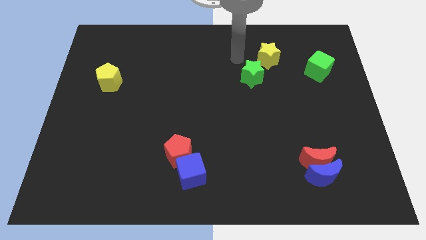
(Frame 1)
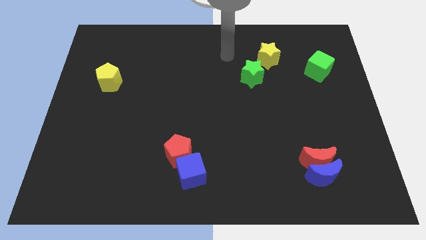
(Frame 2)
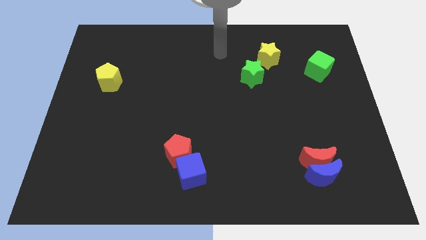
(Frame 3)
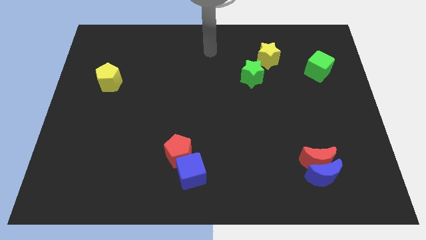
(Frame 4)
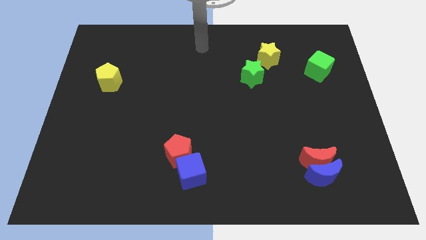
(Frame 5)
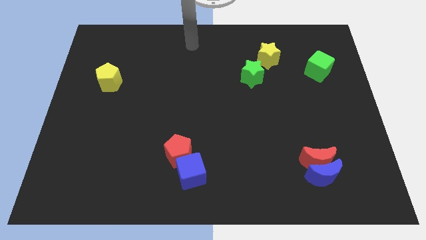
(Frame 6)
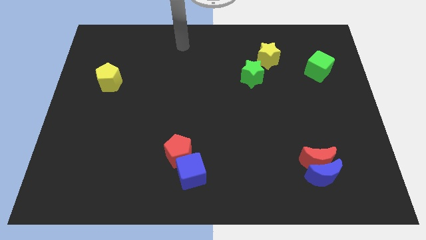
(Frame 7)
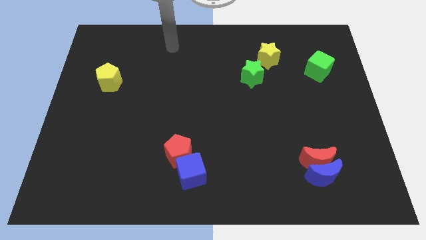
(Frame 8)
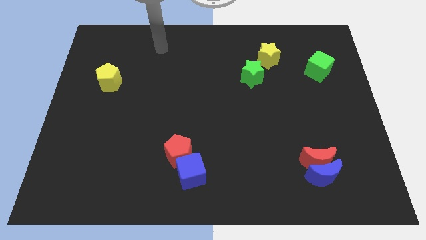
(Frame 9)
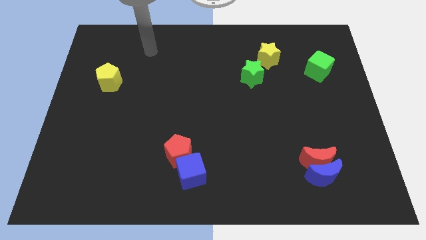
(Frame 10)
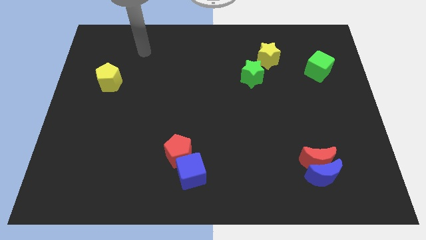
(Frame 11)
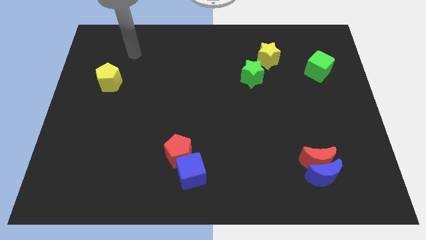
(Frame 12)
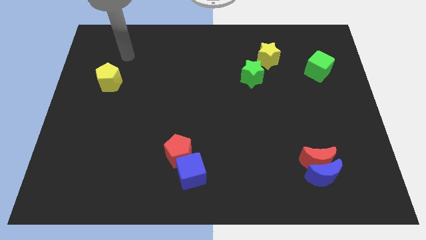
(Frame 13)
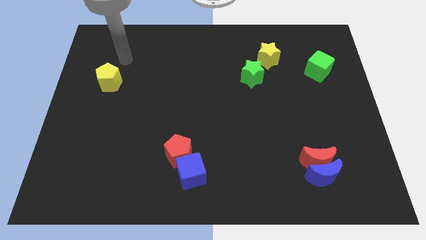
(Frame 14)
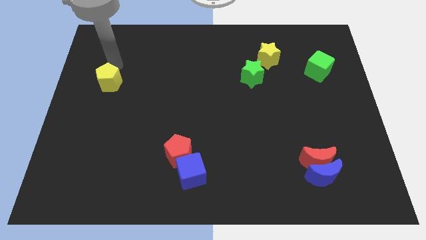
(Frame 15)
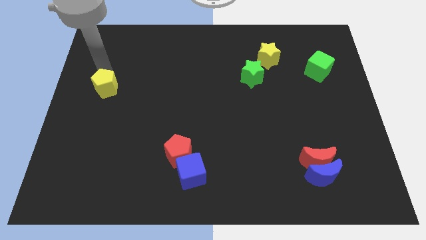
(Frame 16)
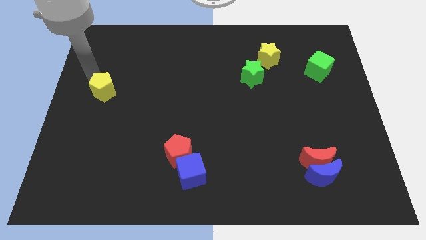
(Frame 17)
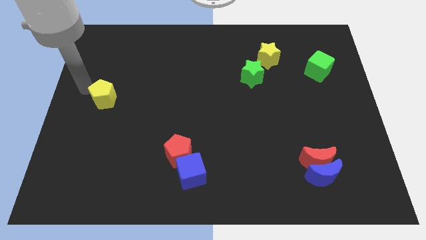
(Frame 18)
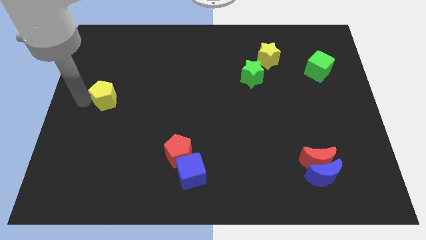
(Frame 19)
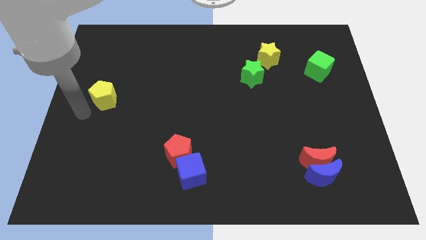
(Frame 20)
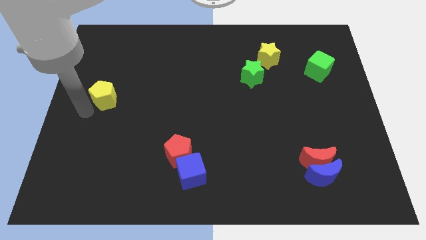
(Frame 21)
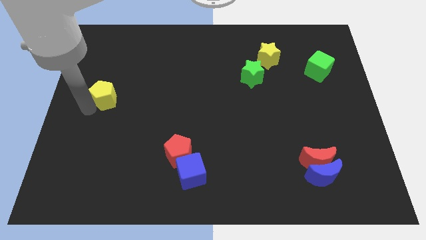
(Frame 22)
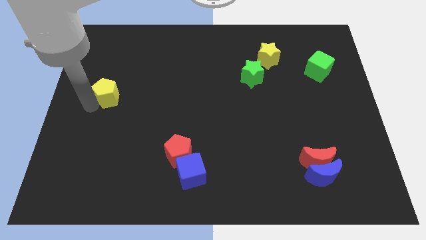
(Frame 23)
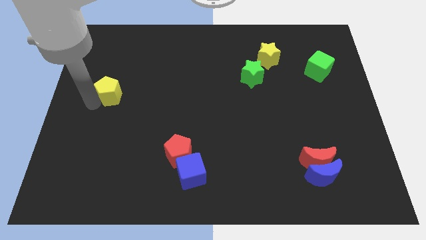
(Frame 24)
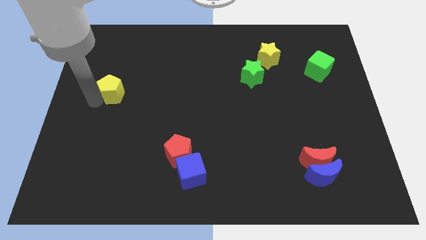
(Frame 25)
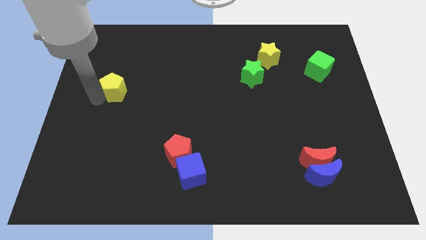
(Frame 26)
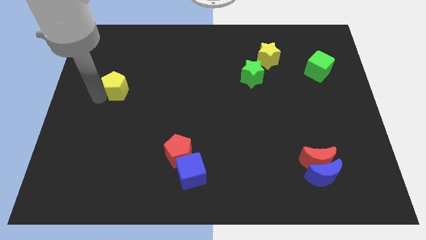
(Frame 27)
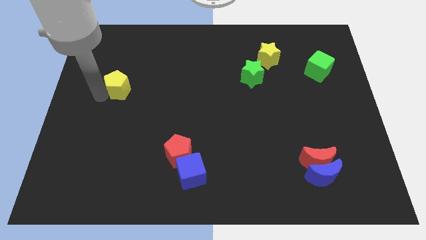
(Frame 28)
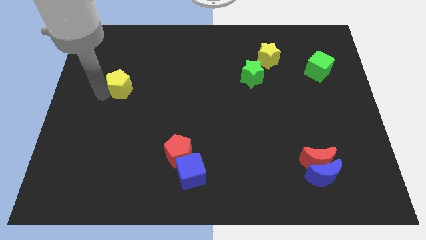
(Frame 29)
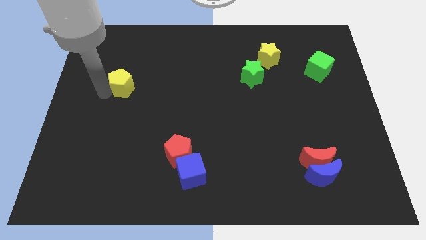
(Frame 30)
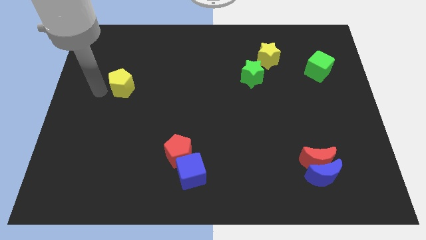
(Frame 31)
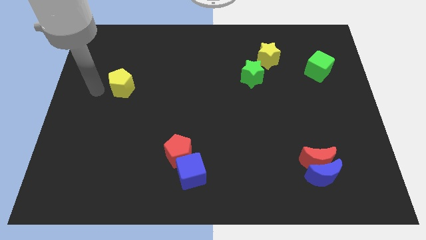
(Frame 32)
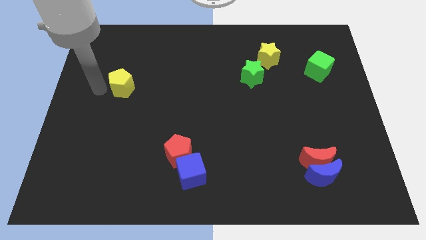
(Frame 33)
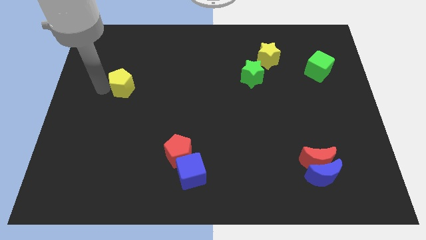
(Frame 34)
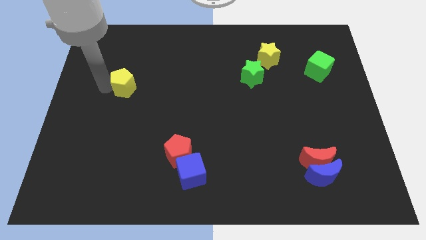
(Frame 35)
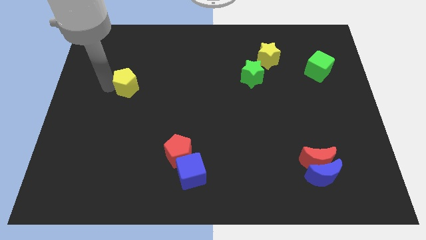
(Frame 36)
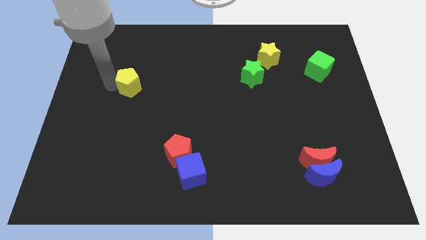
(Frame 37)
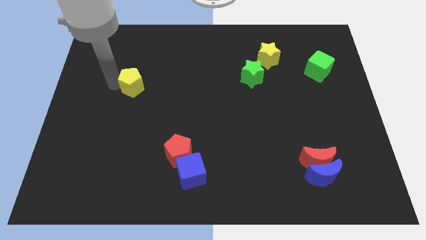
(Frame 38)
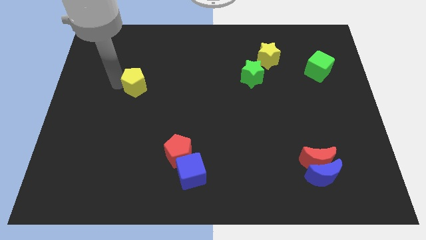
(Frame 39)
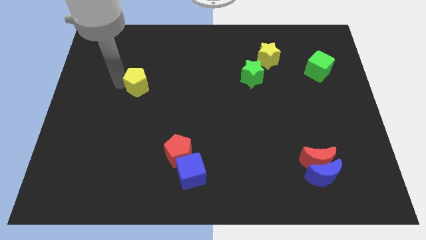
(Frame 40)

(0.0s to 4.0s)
slightly push the yellow pentagon right

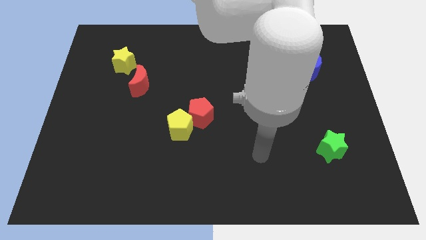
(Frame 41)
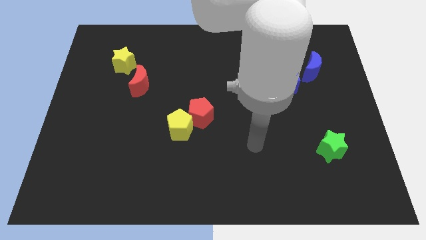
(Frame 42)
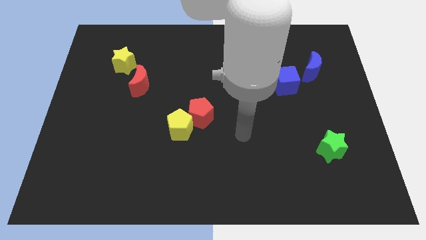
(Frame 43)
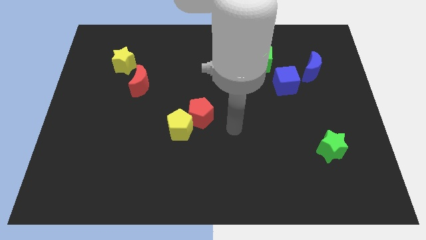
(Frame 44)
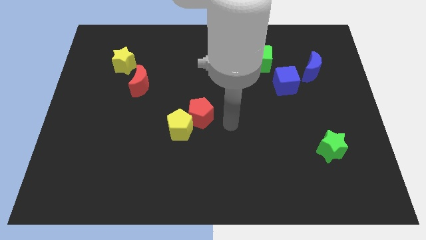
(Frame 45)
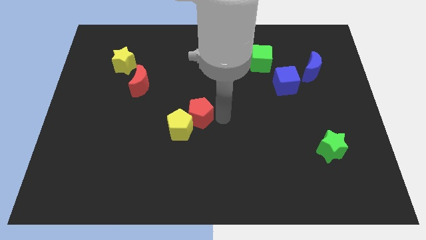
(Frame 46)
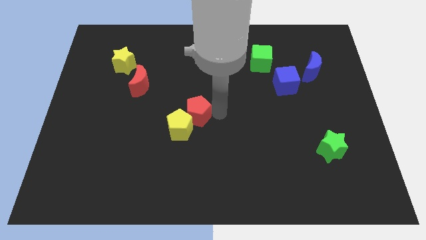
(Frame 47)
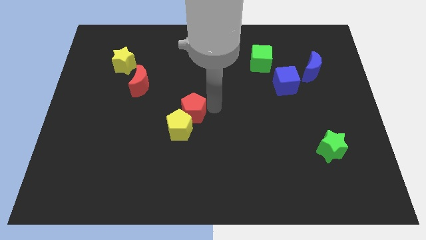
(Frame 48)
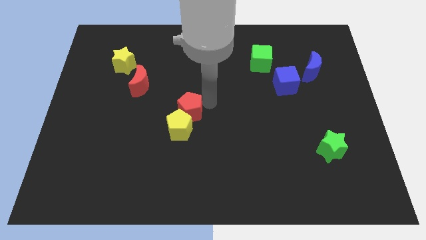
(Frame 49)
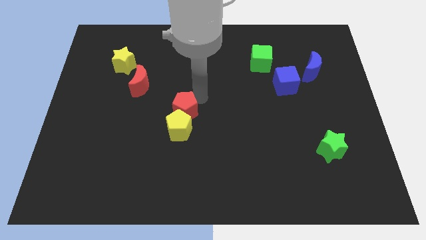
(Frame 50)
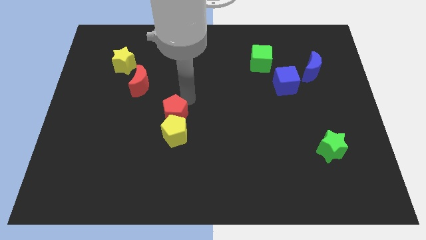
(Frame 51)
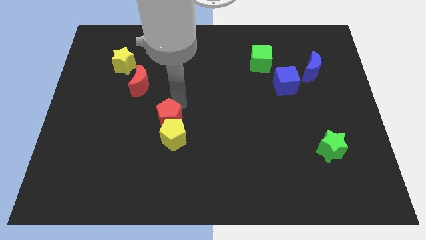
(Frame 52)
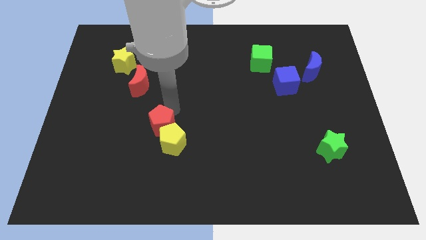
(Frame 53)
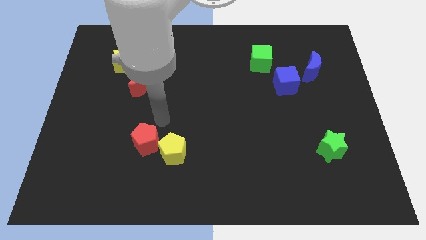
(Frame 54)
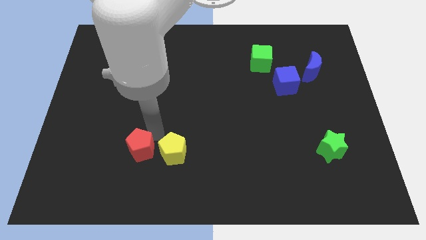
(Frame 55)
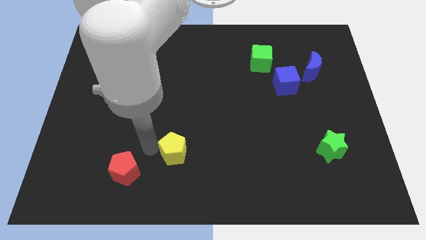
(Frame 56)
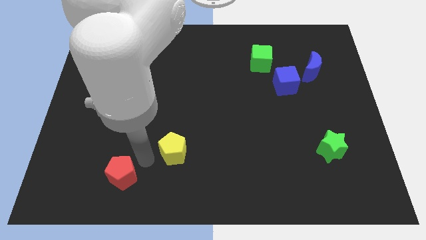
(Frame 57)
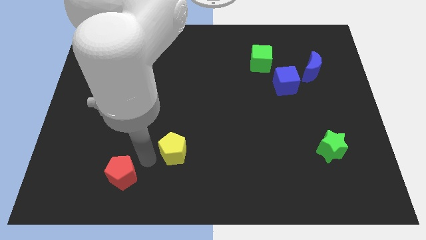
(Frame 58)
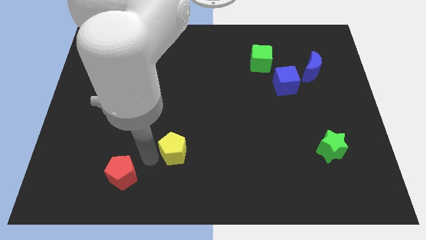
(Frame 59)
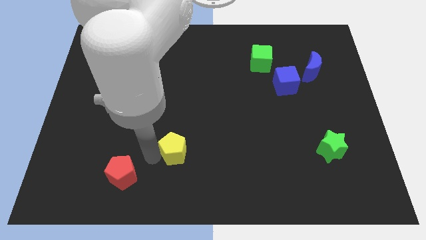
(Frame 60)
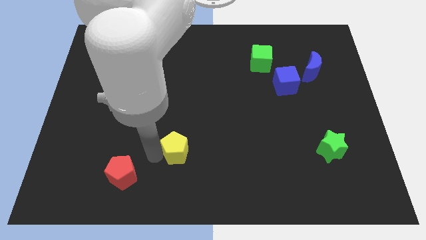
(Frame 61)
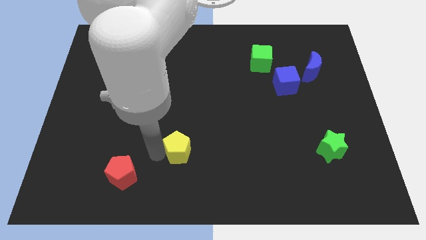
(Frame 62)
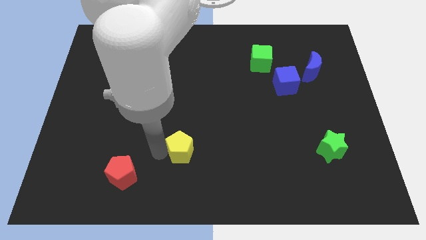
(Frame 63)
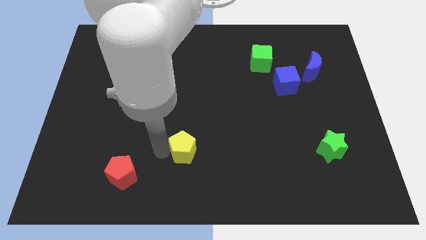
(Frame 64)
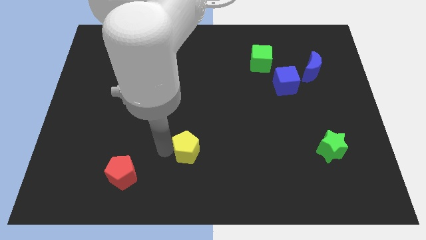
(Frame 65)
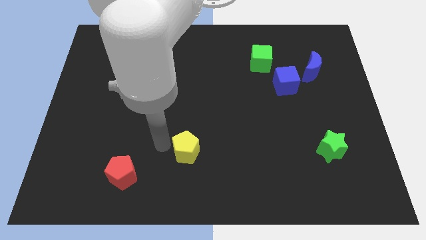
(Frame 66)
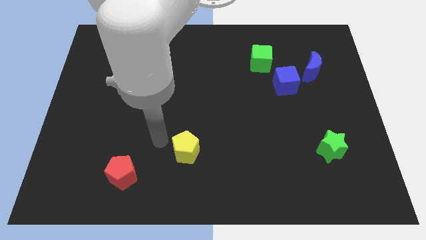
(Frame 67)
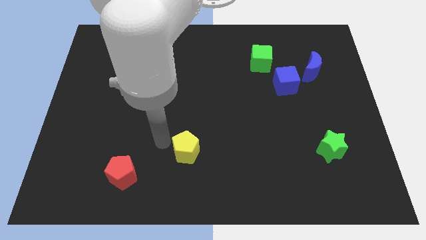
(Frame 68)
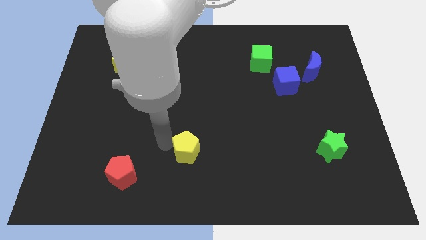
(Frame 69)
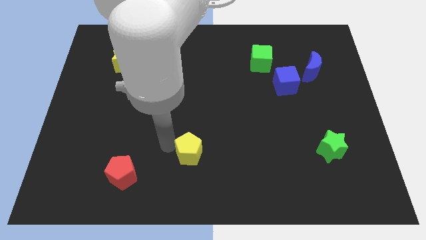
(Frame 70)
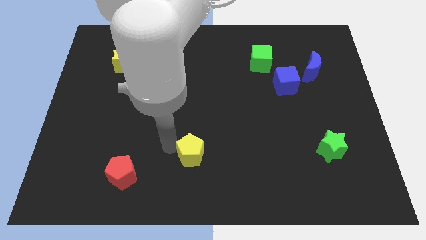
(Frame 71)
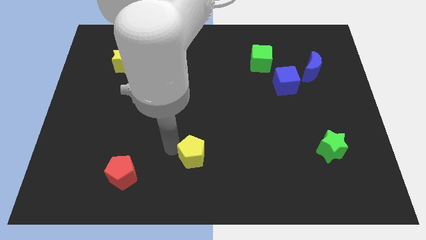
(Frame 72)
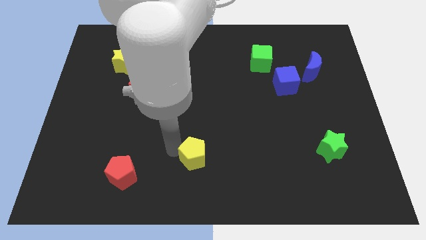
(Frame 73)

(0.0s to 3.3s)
slide the yellow pentagon downwards and then right a little bit

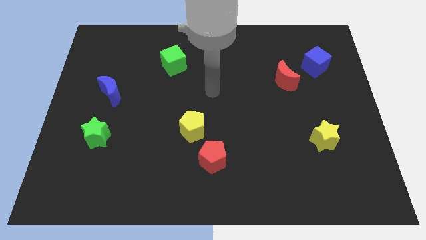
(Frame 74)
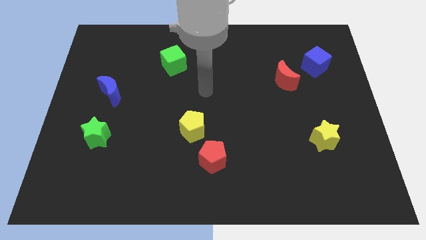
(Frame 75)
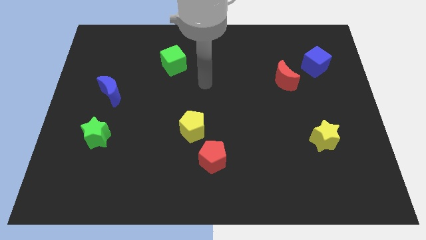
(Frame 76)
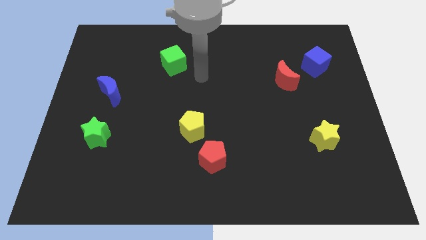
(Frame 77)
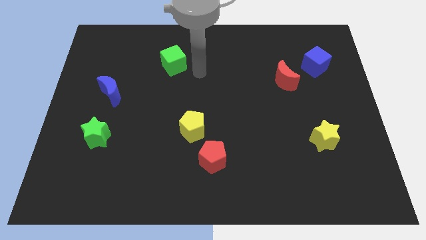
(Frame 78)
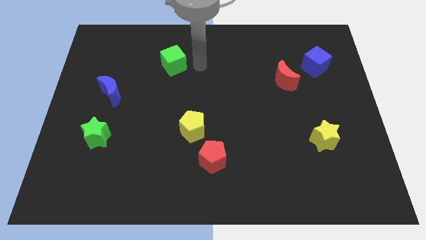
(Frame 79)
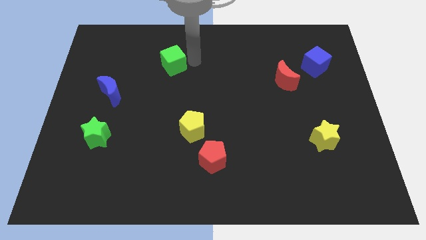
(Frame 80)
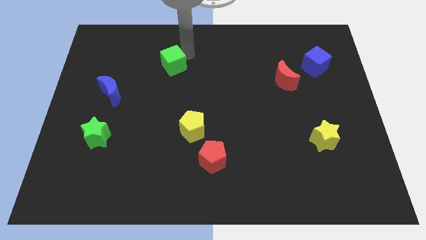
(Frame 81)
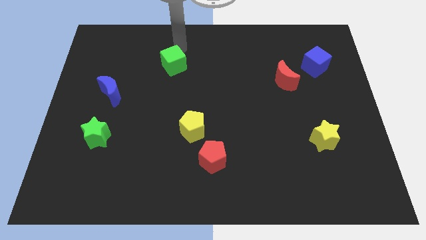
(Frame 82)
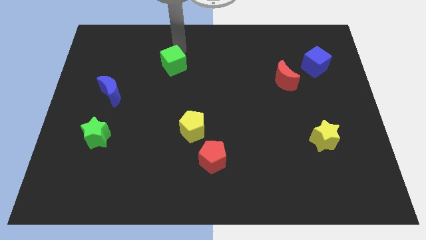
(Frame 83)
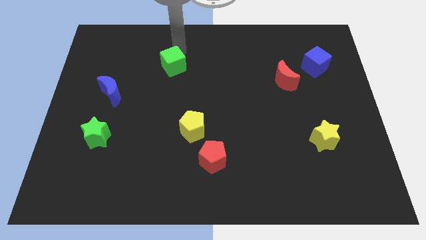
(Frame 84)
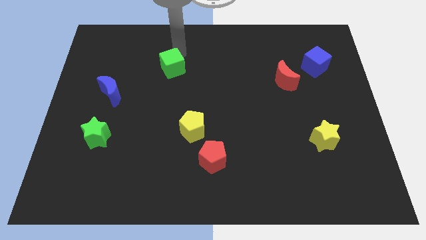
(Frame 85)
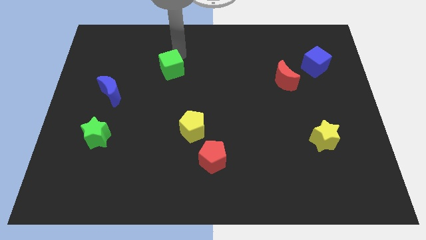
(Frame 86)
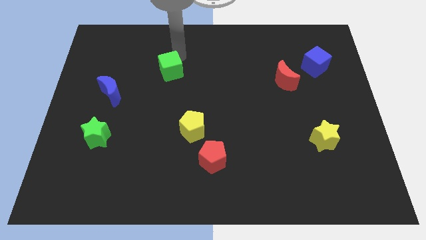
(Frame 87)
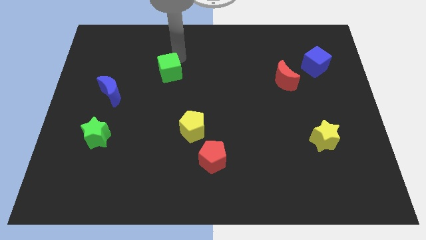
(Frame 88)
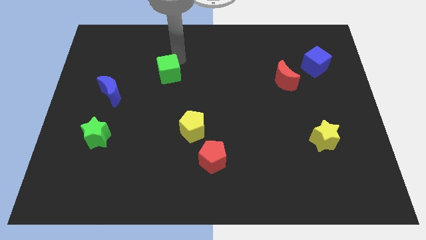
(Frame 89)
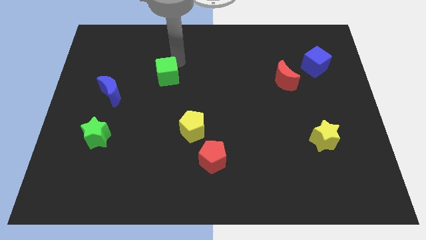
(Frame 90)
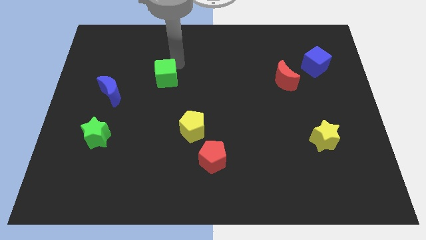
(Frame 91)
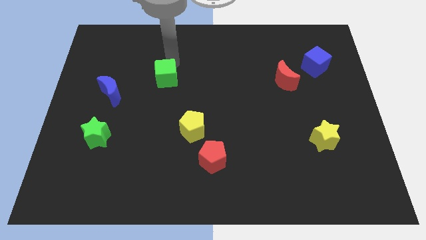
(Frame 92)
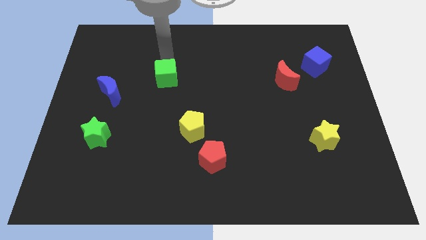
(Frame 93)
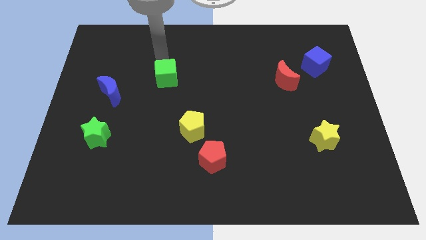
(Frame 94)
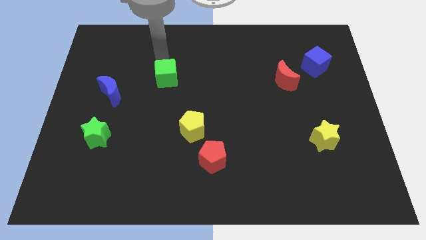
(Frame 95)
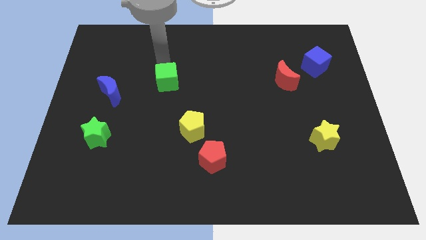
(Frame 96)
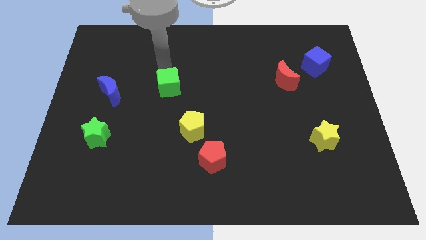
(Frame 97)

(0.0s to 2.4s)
move the green cube slightly downwards
